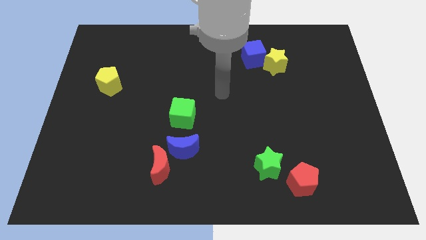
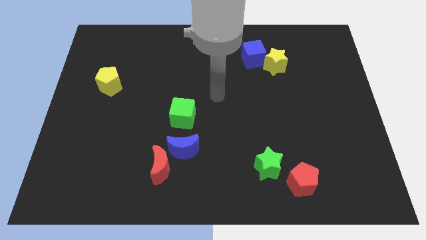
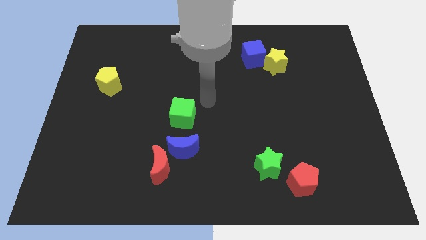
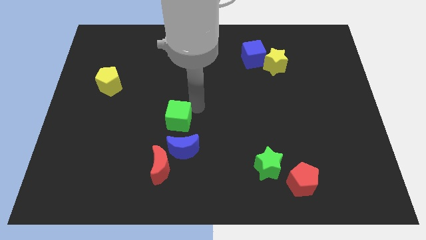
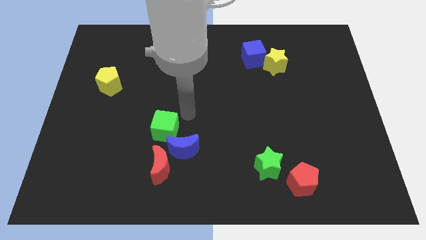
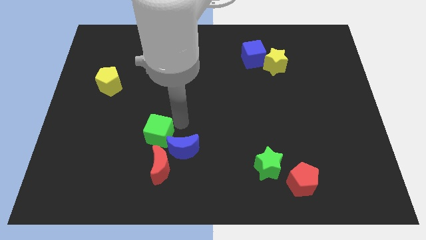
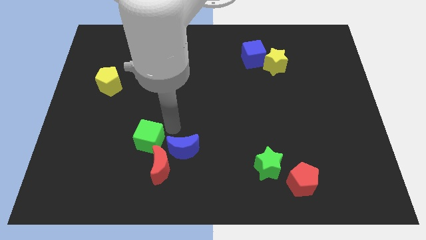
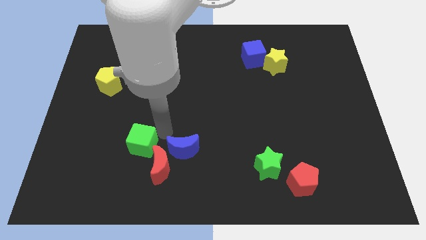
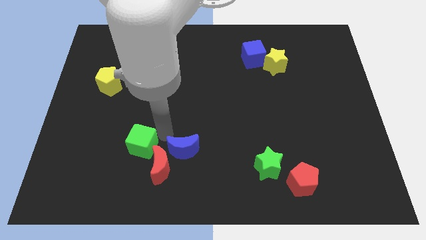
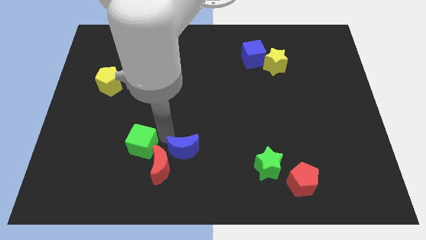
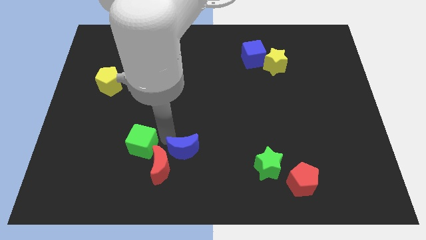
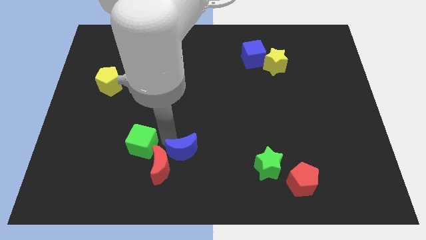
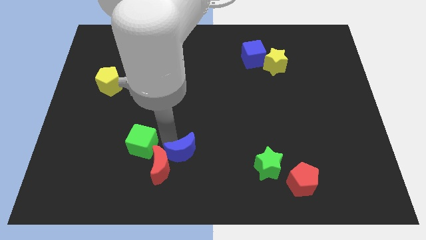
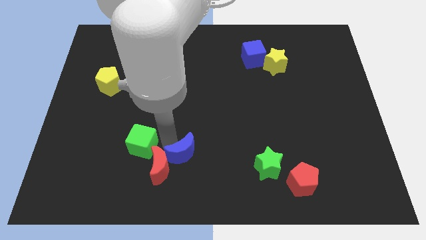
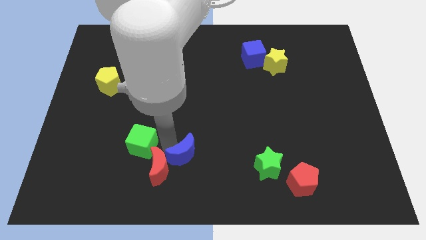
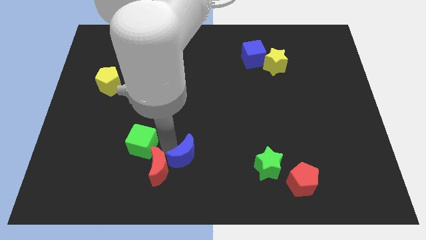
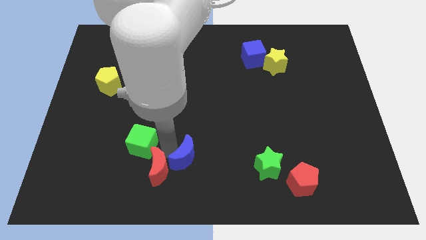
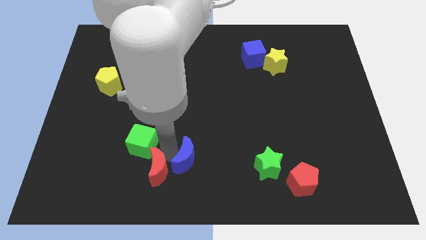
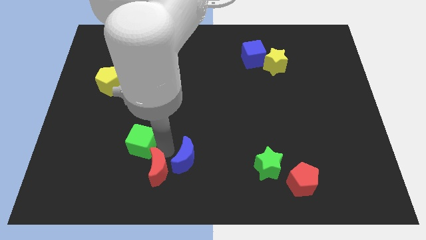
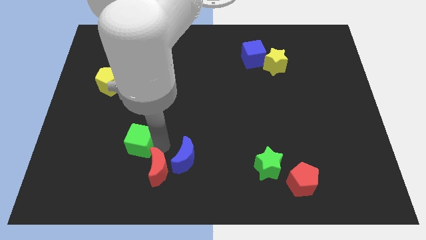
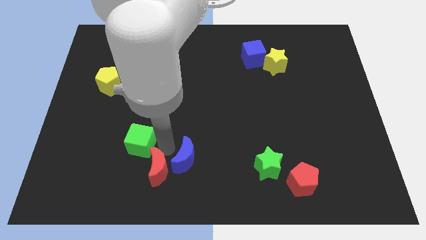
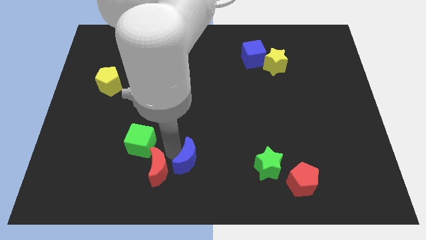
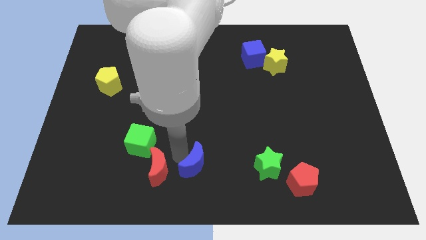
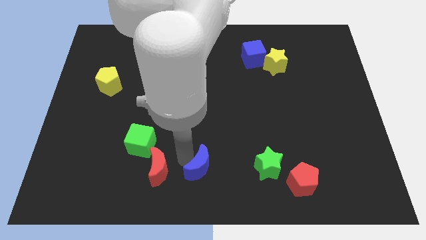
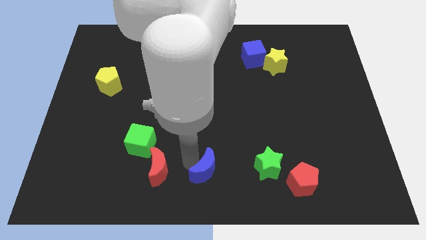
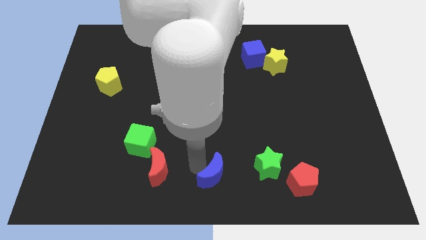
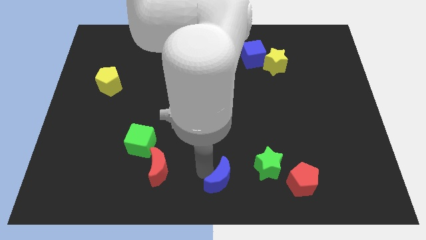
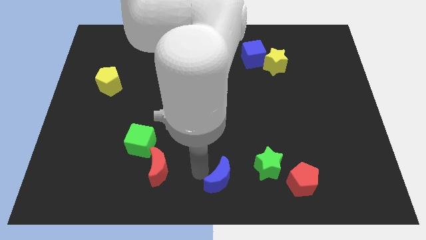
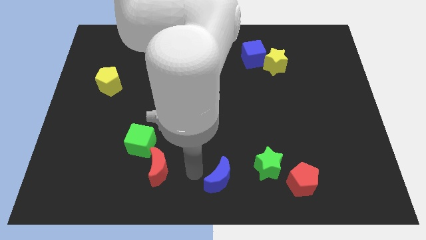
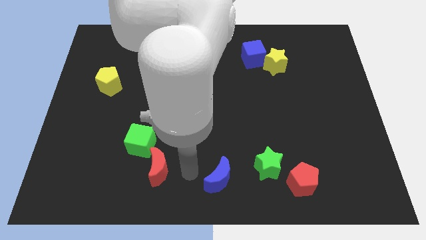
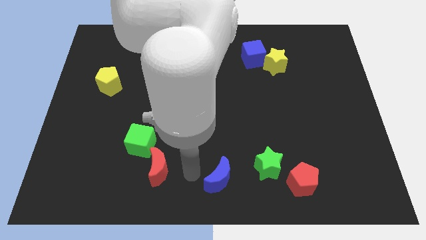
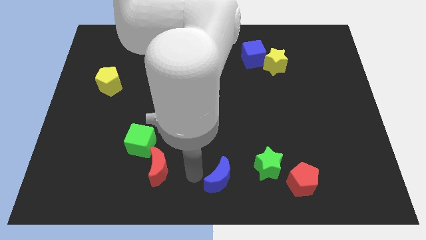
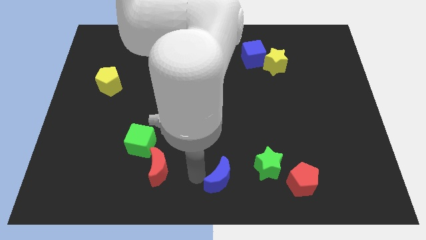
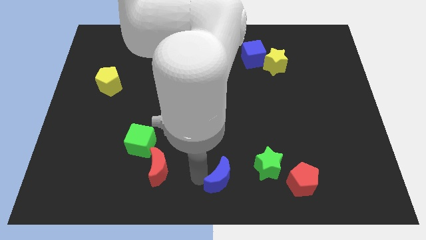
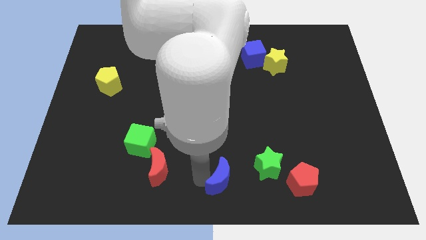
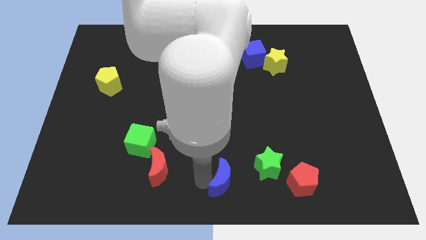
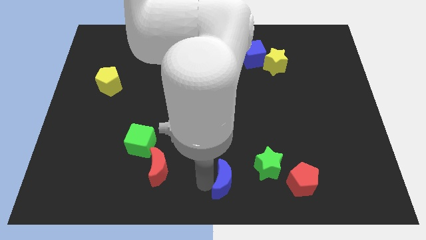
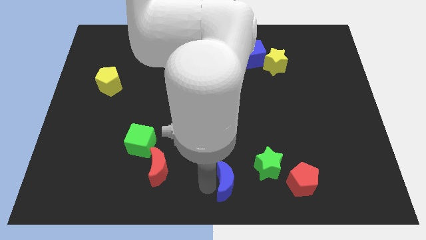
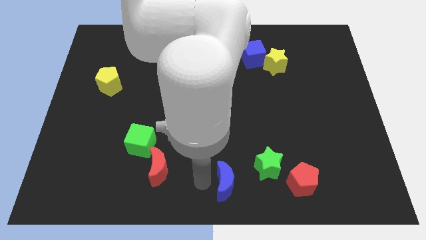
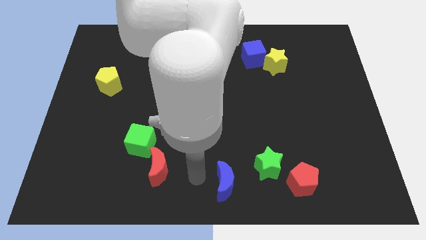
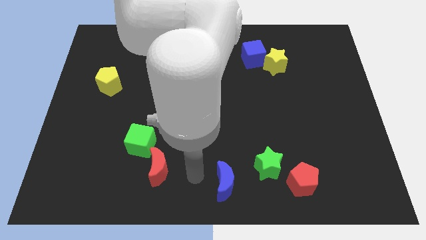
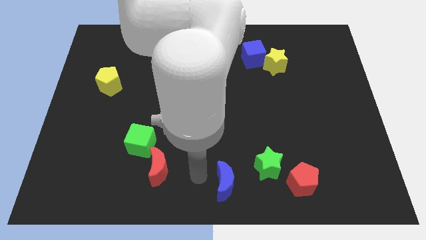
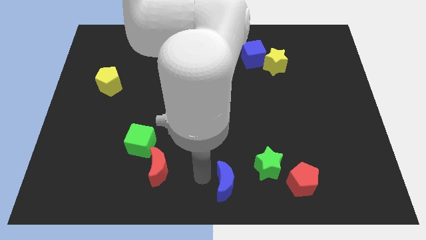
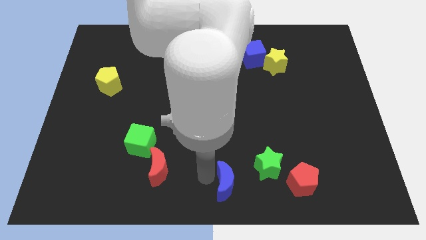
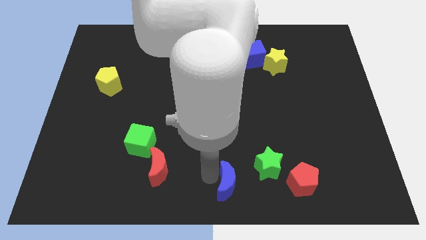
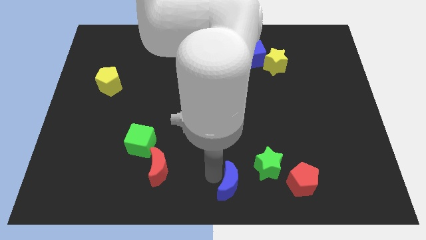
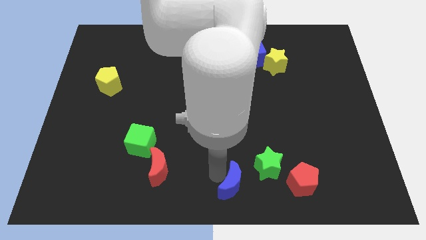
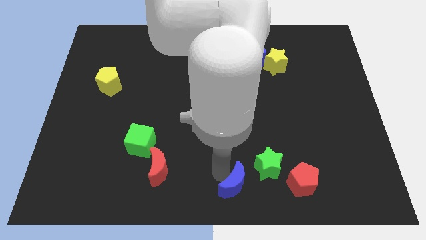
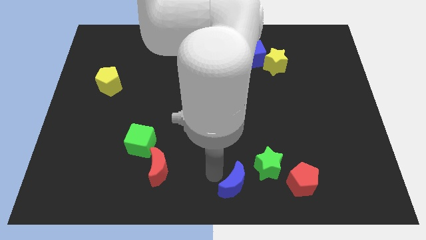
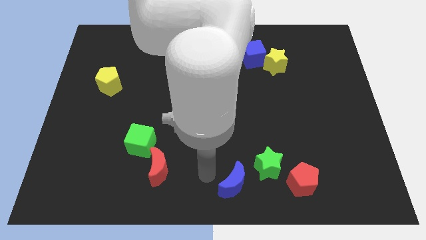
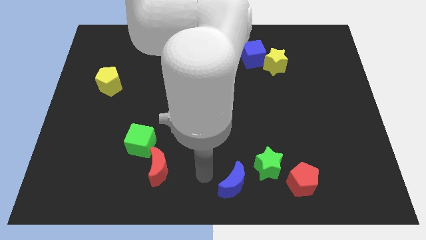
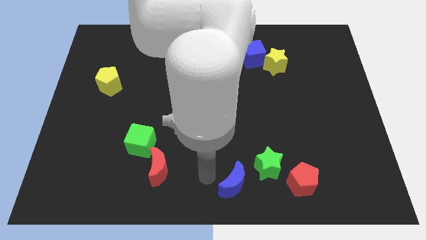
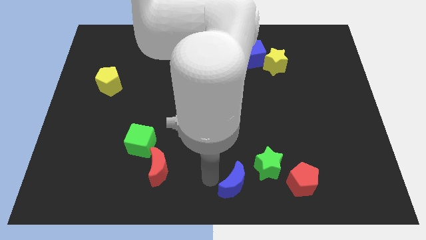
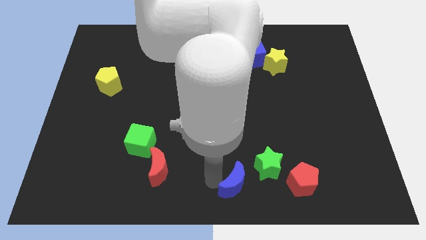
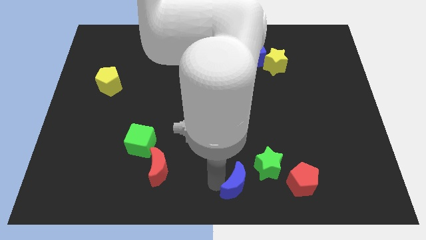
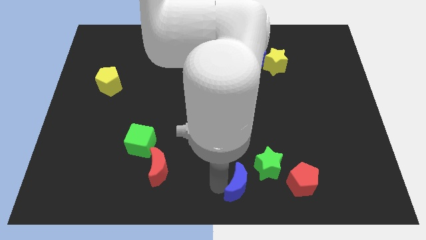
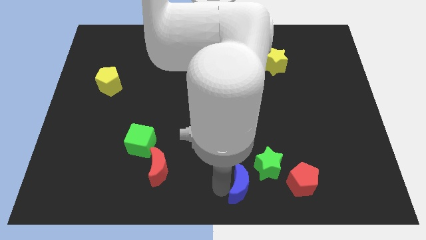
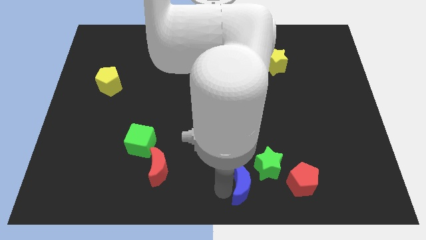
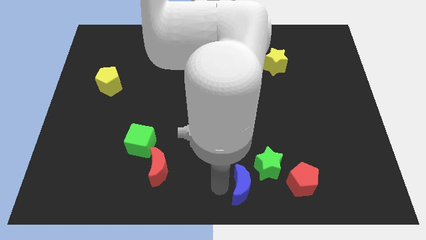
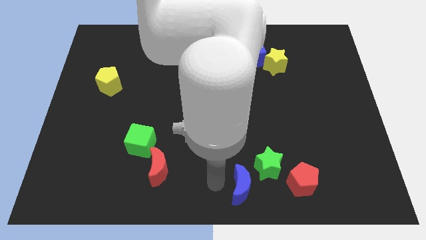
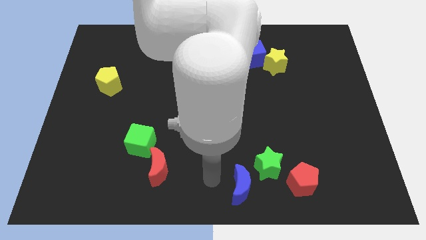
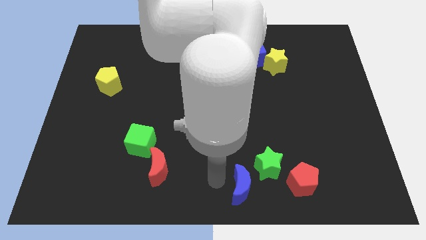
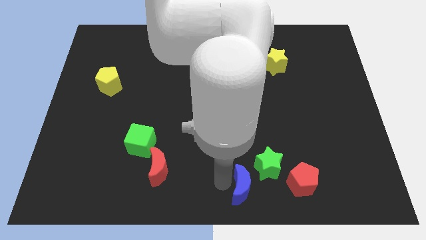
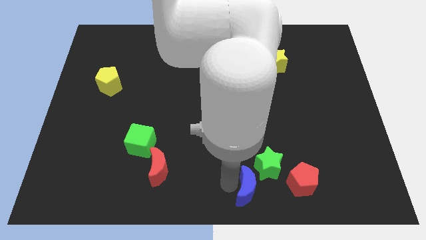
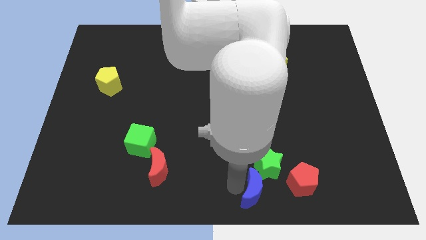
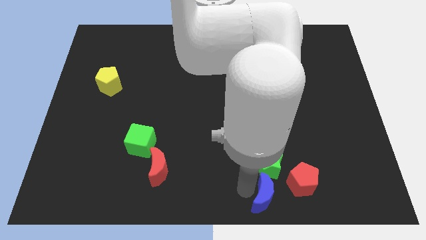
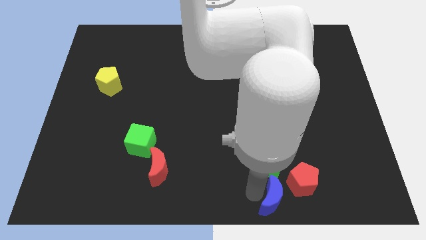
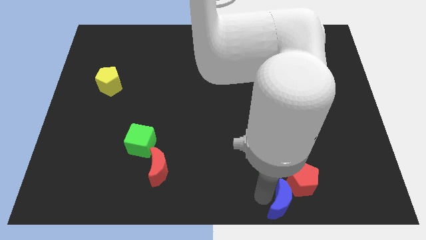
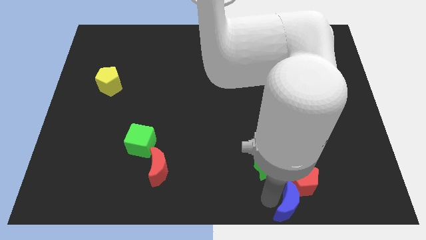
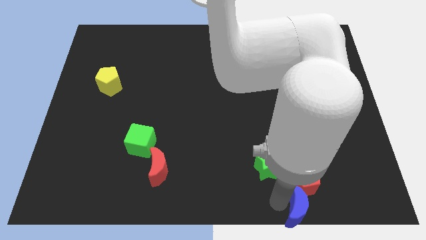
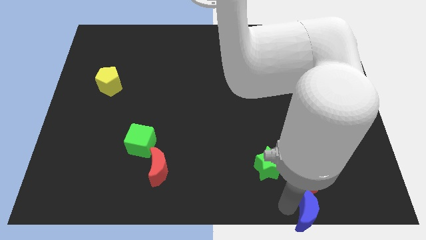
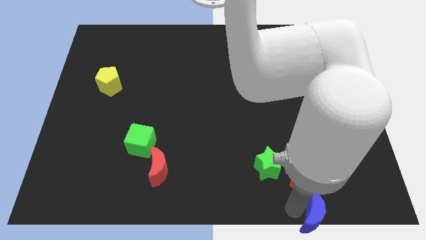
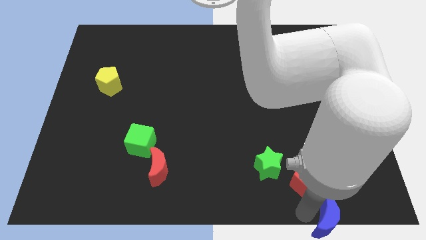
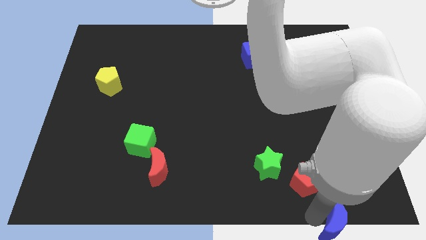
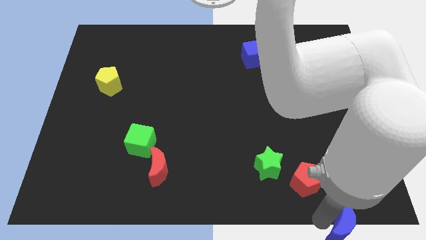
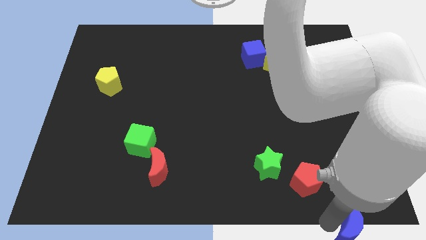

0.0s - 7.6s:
push the blue moon to the bottom right corner
